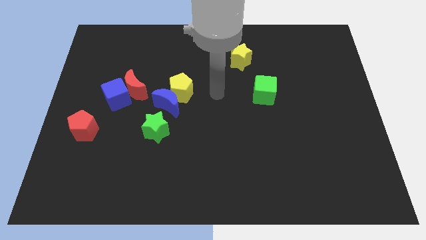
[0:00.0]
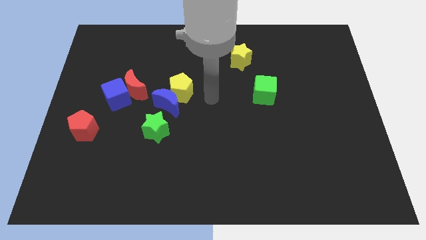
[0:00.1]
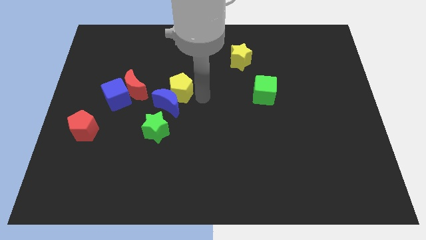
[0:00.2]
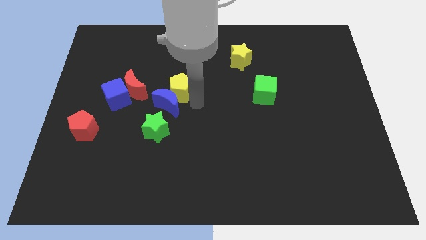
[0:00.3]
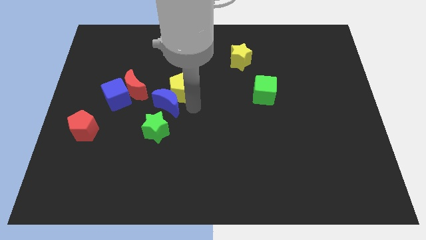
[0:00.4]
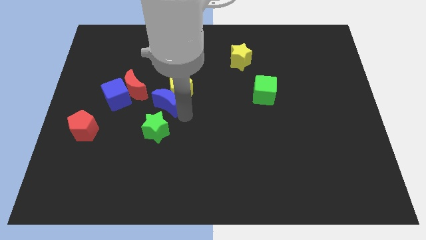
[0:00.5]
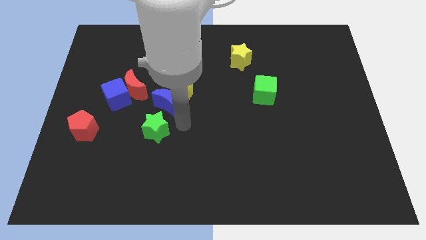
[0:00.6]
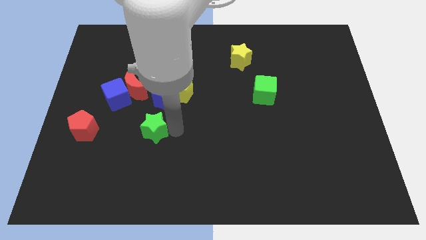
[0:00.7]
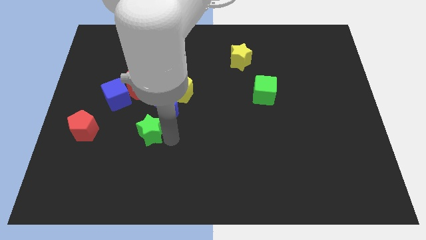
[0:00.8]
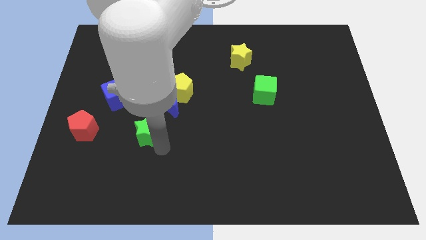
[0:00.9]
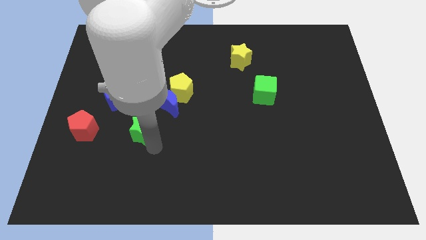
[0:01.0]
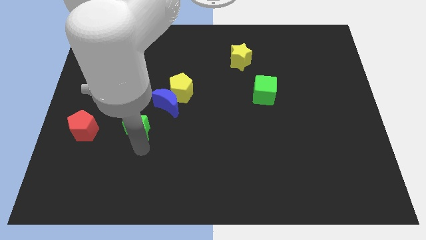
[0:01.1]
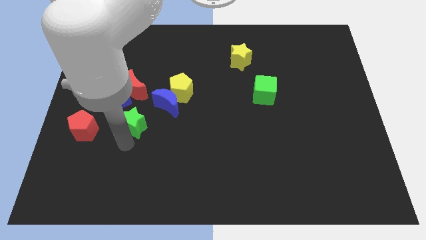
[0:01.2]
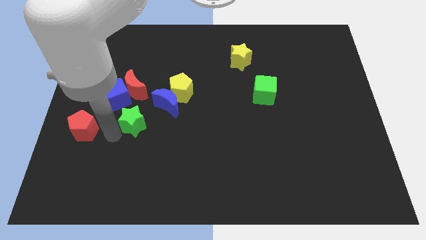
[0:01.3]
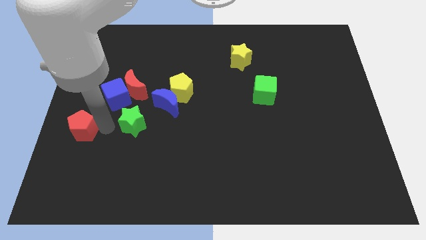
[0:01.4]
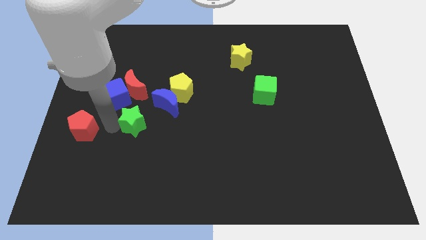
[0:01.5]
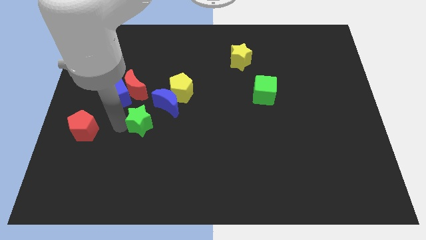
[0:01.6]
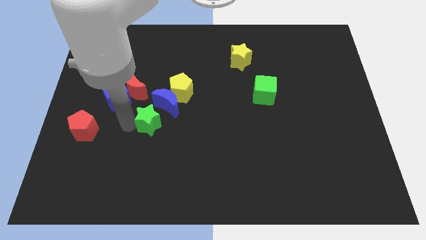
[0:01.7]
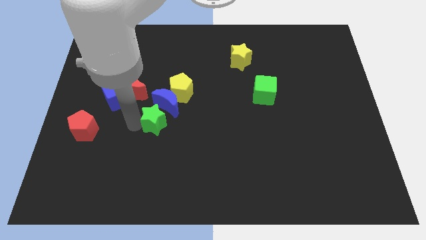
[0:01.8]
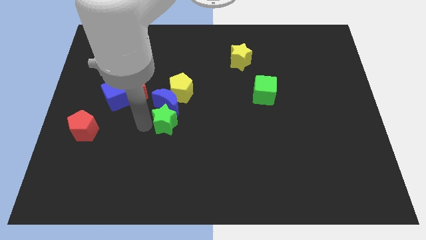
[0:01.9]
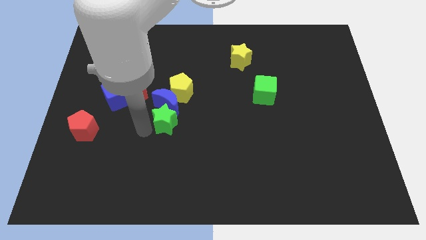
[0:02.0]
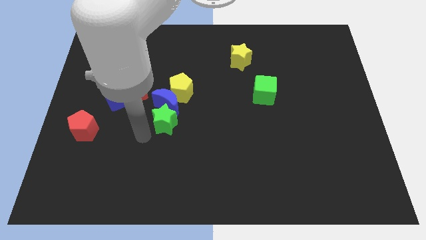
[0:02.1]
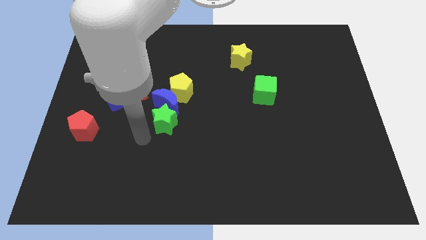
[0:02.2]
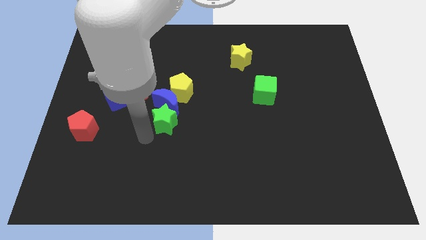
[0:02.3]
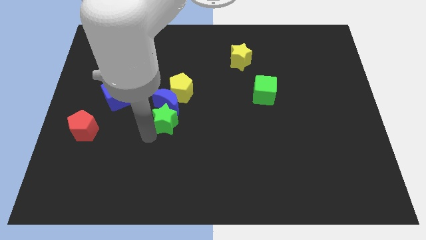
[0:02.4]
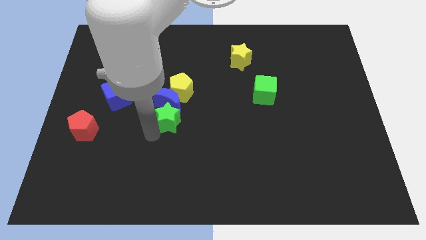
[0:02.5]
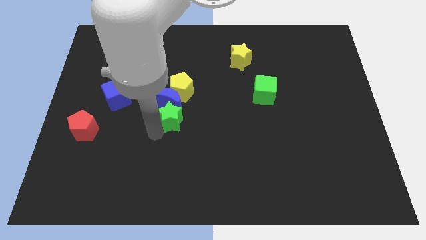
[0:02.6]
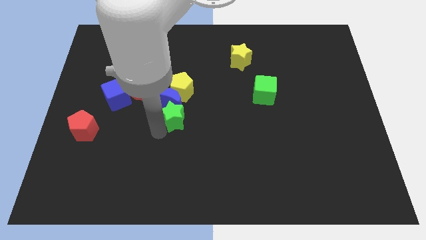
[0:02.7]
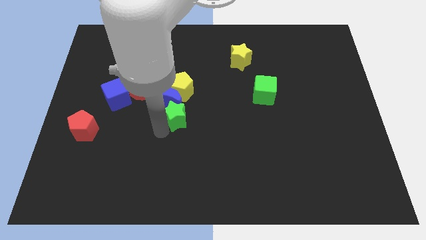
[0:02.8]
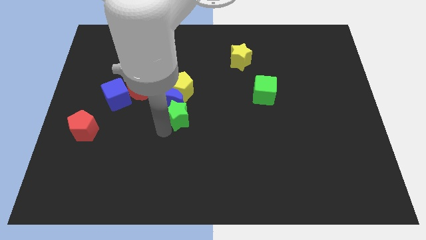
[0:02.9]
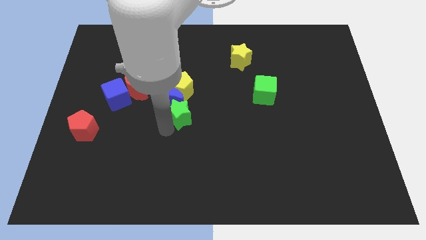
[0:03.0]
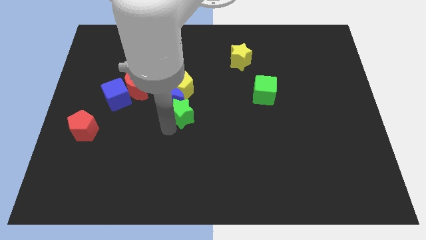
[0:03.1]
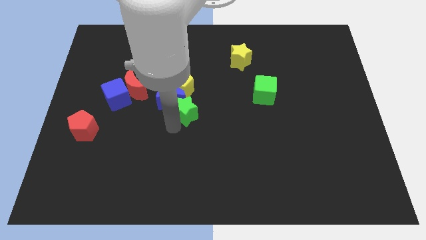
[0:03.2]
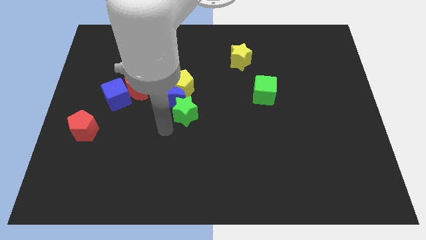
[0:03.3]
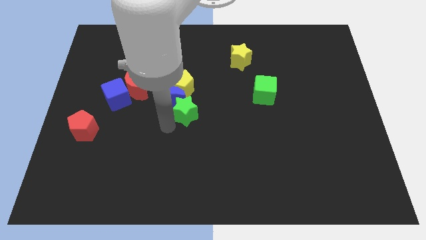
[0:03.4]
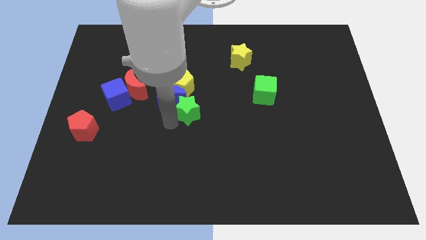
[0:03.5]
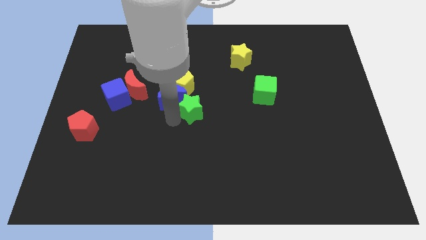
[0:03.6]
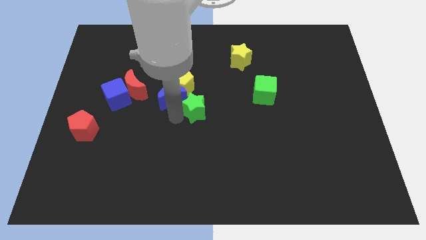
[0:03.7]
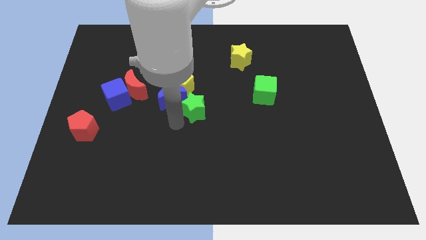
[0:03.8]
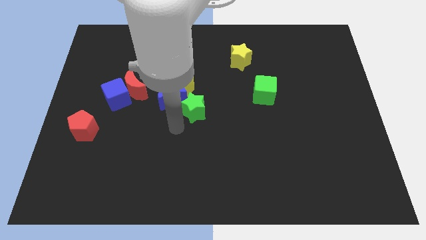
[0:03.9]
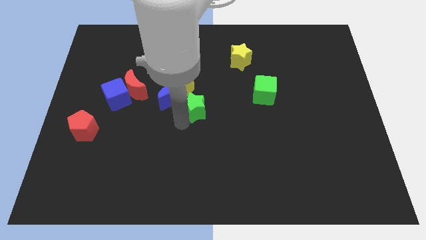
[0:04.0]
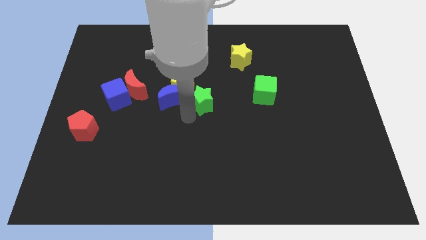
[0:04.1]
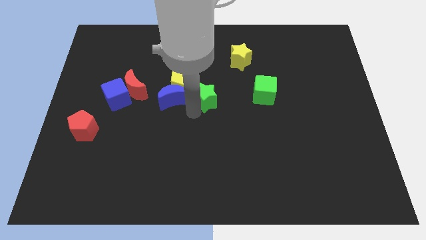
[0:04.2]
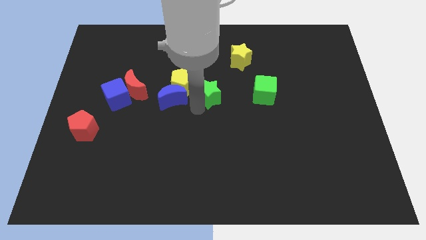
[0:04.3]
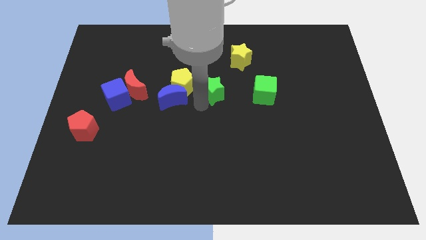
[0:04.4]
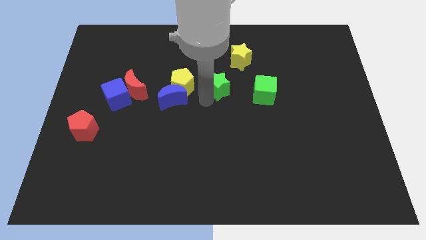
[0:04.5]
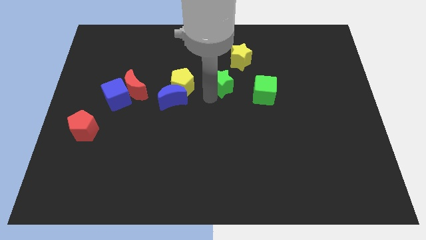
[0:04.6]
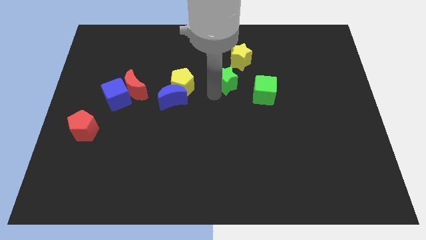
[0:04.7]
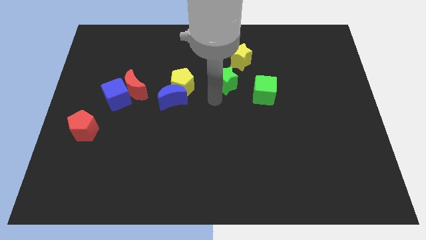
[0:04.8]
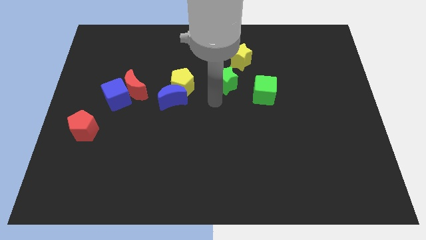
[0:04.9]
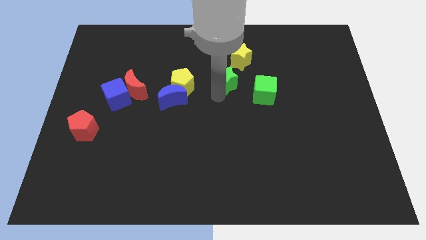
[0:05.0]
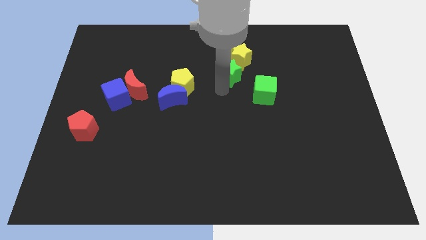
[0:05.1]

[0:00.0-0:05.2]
slide the green star next to the yellow star

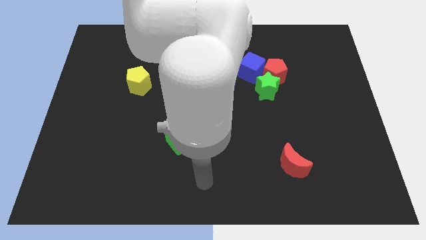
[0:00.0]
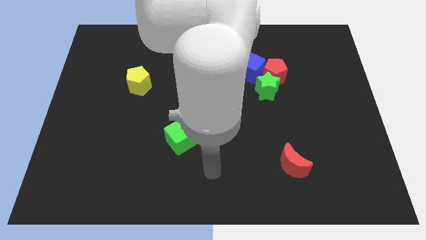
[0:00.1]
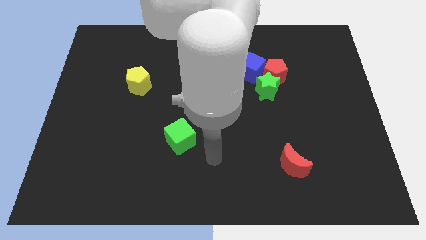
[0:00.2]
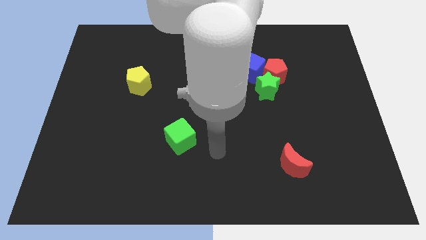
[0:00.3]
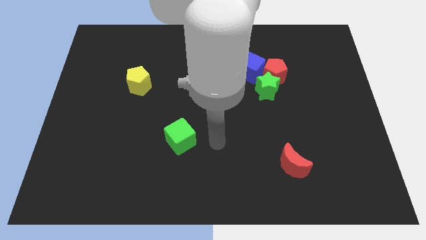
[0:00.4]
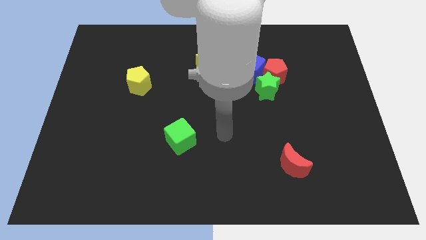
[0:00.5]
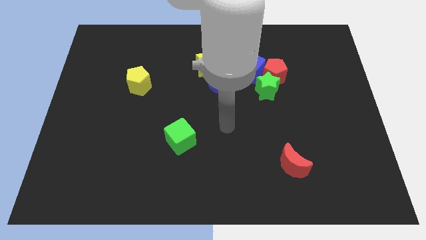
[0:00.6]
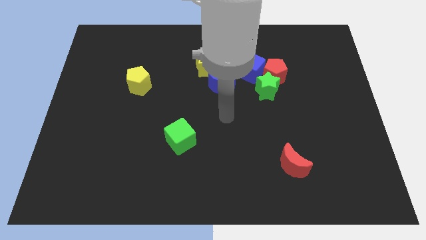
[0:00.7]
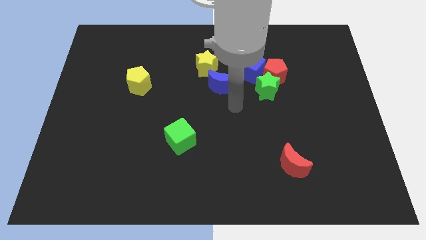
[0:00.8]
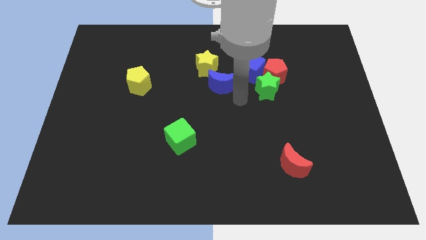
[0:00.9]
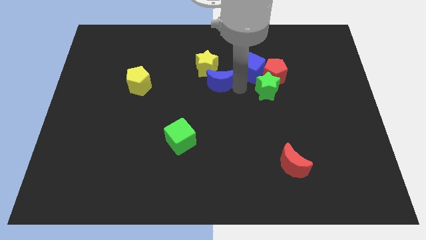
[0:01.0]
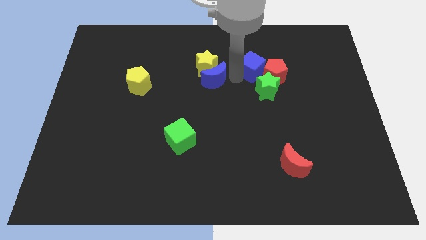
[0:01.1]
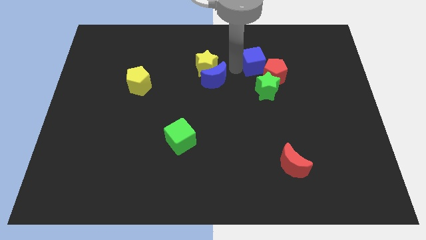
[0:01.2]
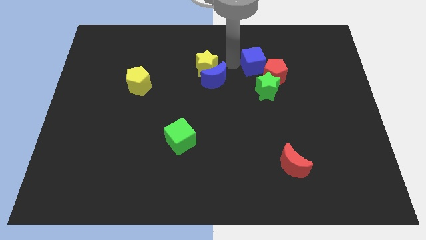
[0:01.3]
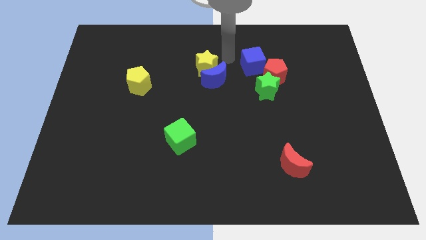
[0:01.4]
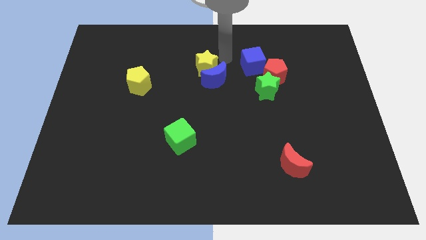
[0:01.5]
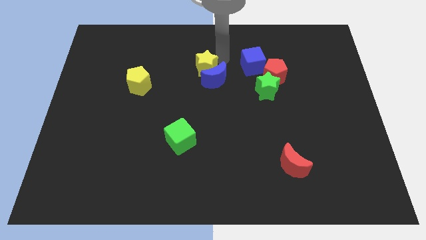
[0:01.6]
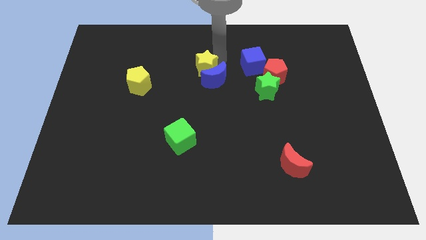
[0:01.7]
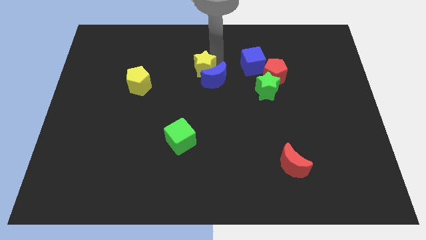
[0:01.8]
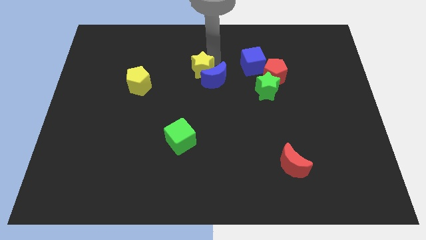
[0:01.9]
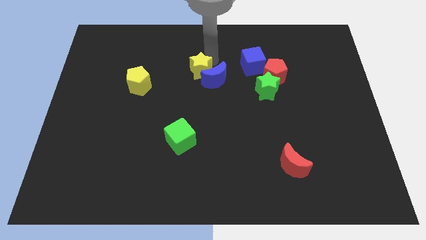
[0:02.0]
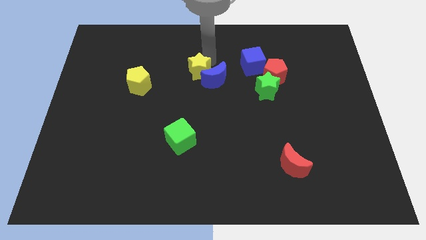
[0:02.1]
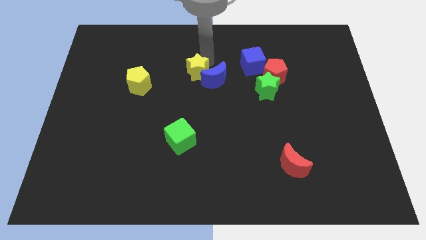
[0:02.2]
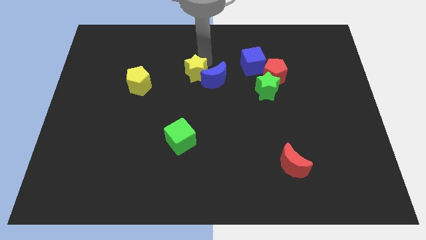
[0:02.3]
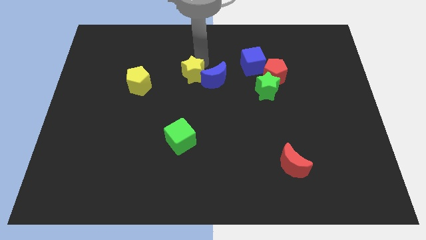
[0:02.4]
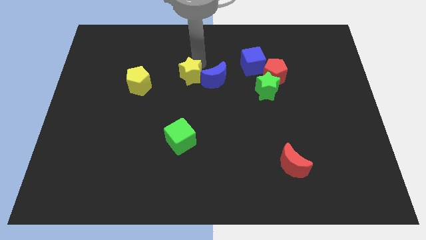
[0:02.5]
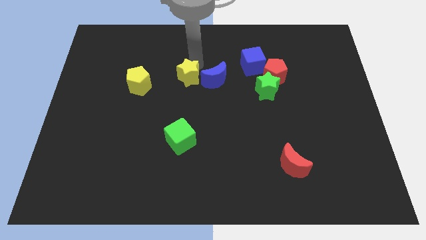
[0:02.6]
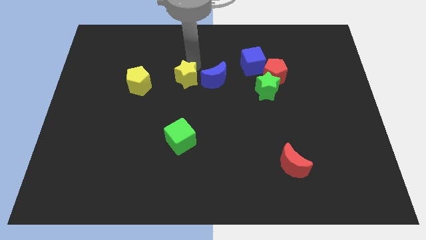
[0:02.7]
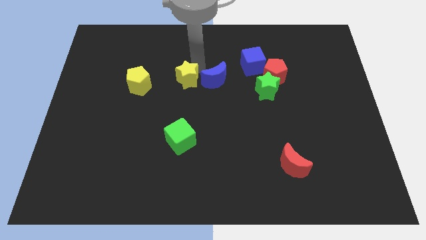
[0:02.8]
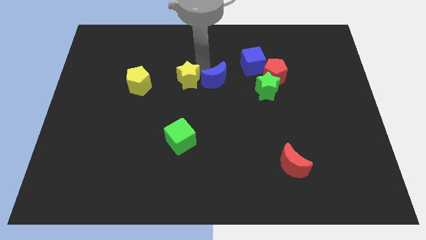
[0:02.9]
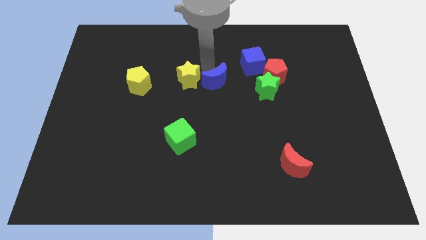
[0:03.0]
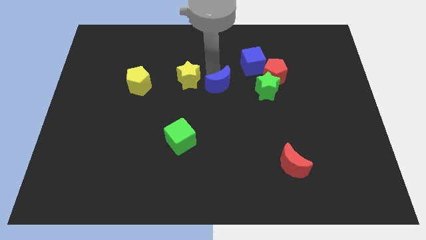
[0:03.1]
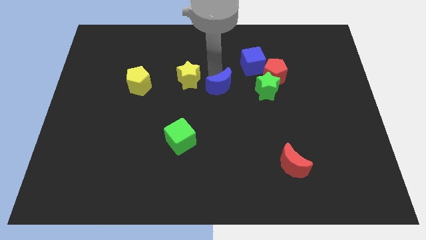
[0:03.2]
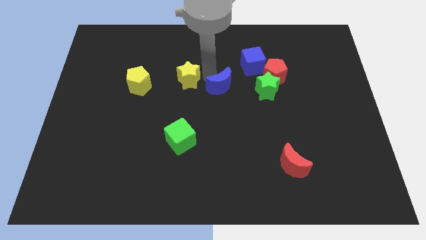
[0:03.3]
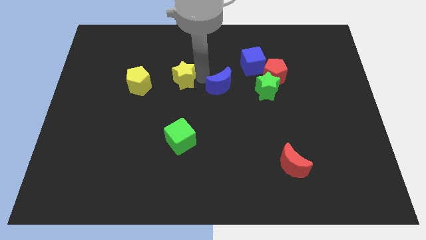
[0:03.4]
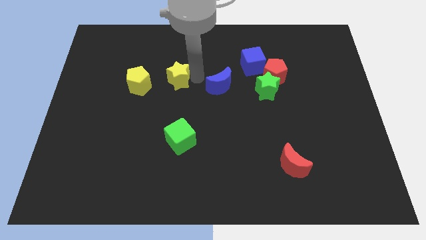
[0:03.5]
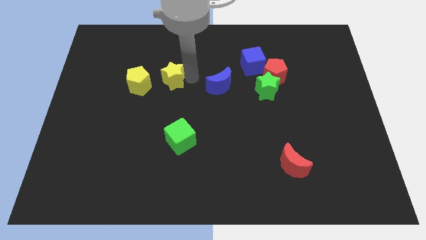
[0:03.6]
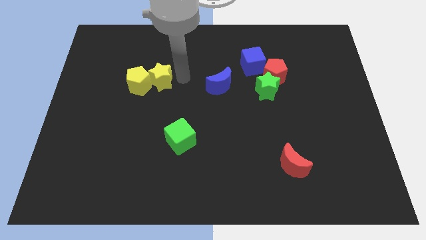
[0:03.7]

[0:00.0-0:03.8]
push the yellow star next to the yellow pentagon
